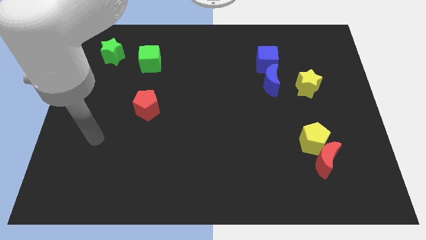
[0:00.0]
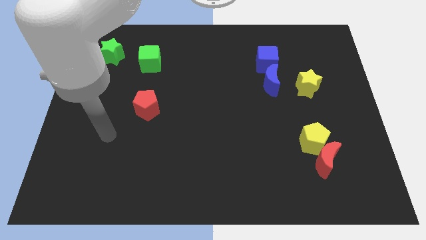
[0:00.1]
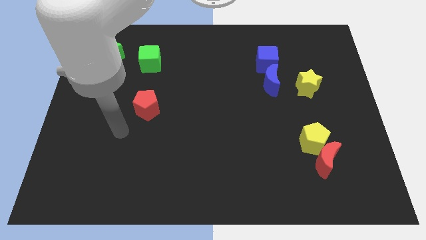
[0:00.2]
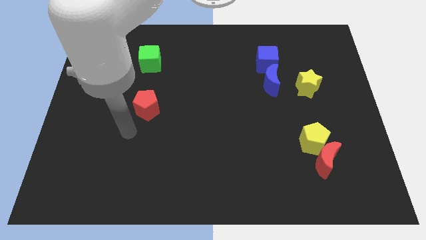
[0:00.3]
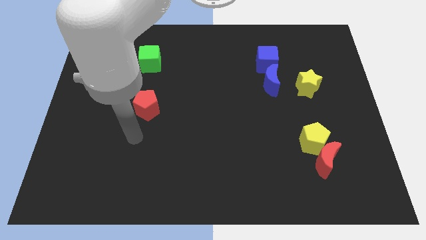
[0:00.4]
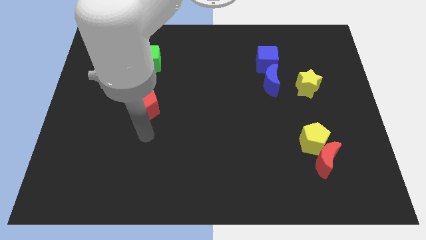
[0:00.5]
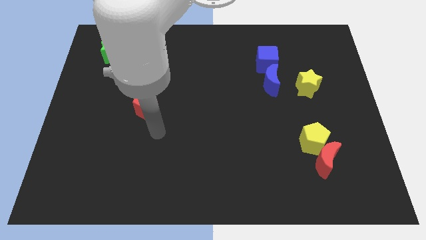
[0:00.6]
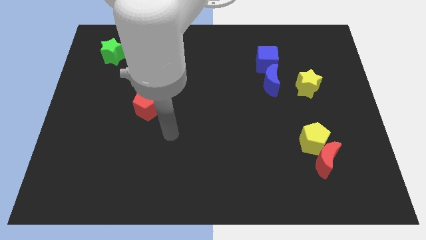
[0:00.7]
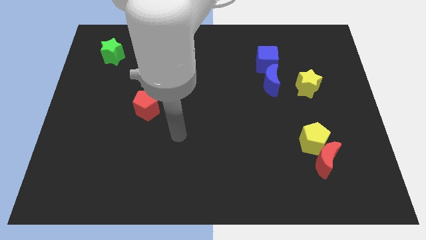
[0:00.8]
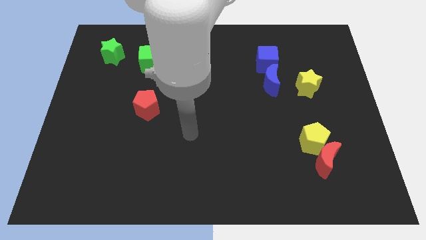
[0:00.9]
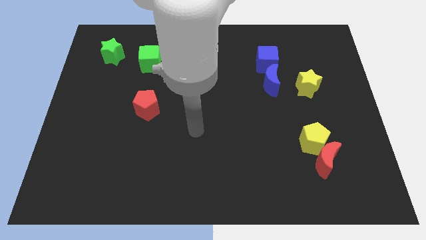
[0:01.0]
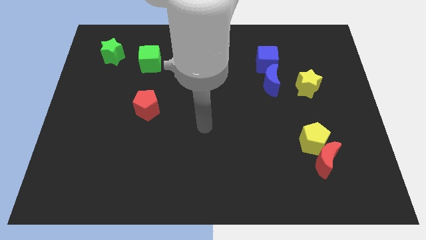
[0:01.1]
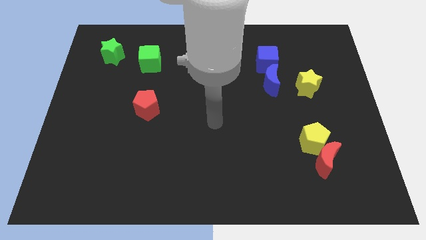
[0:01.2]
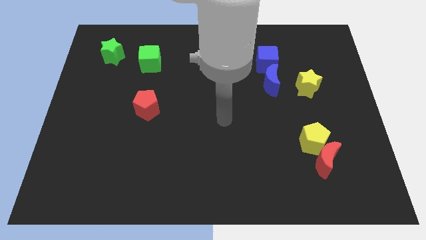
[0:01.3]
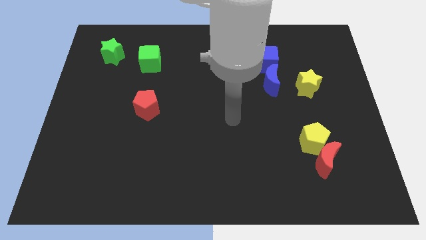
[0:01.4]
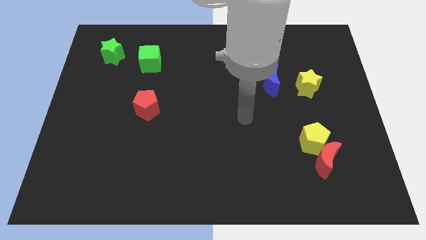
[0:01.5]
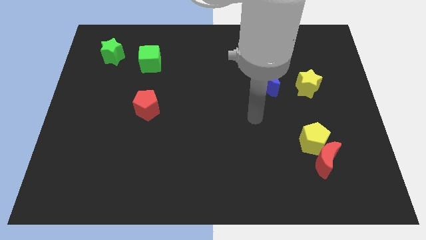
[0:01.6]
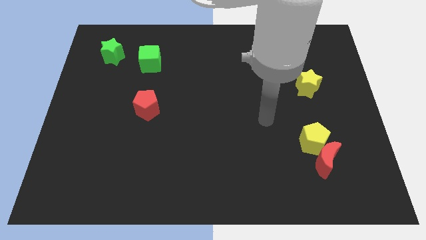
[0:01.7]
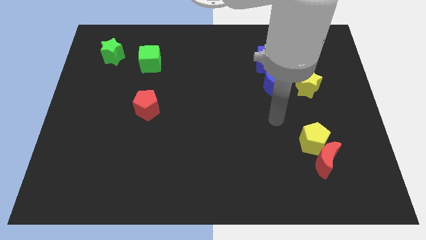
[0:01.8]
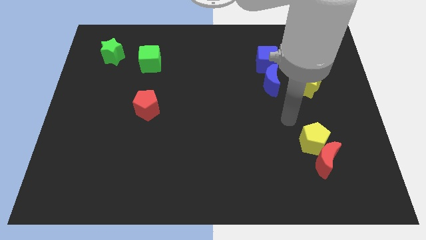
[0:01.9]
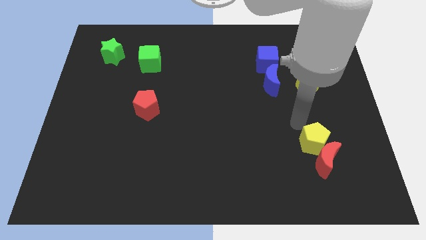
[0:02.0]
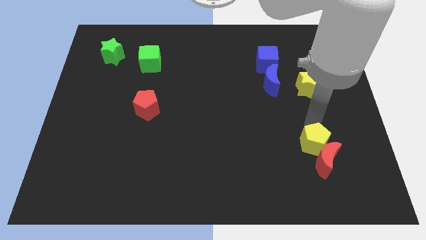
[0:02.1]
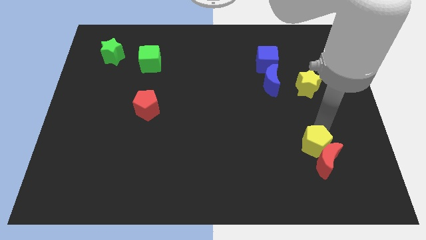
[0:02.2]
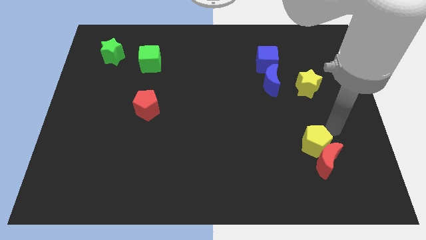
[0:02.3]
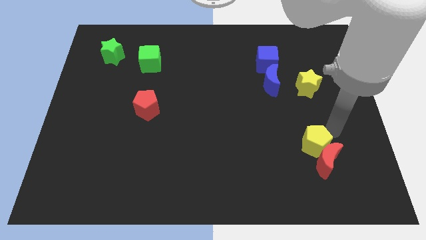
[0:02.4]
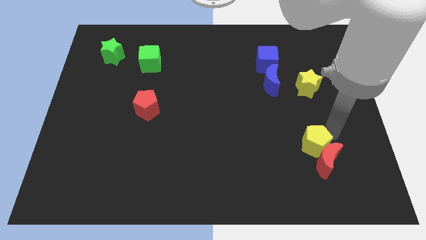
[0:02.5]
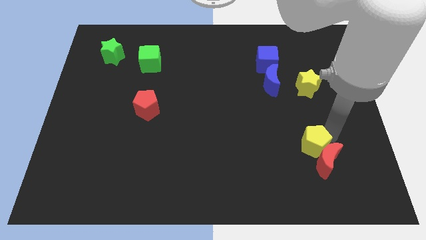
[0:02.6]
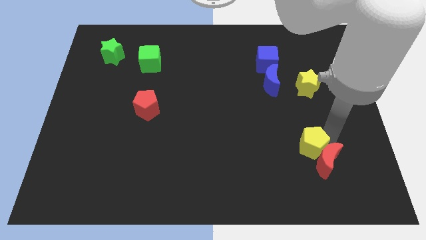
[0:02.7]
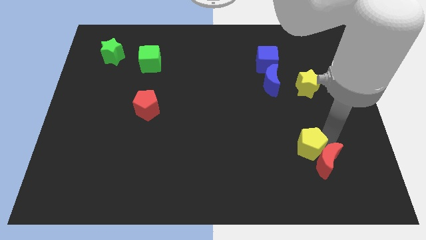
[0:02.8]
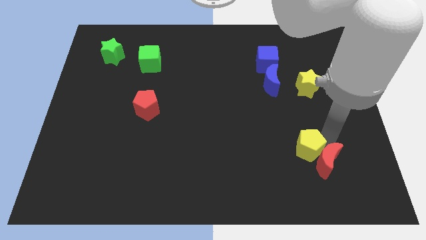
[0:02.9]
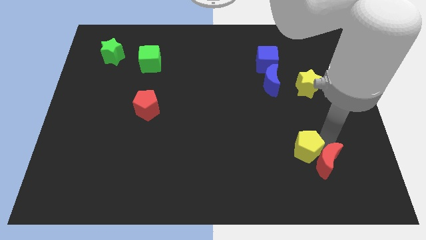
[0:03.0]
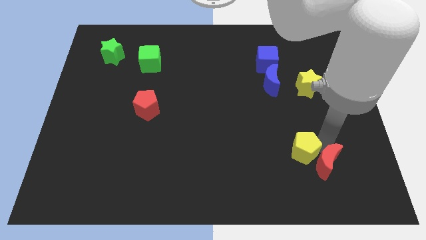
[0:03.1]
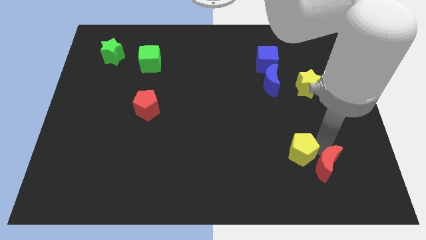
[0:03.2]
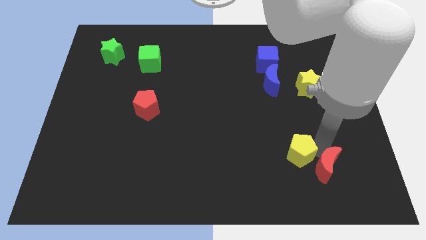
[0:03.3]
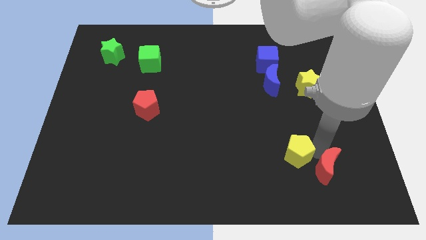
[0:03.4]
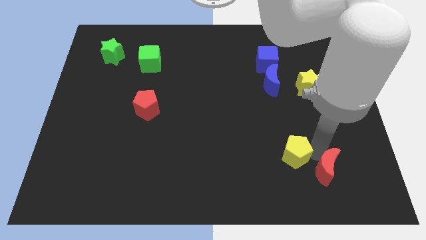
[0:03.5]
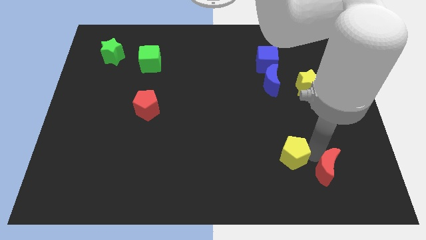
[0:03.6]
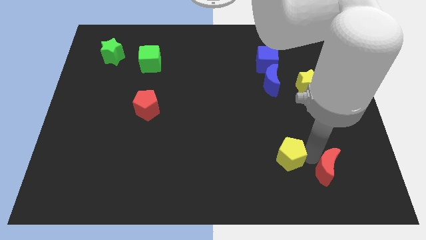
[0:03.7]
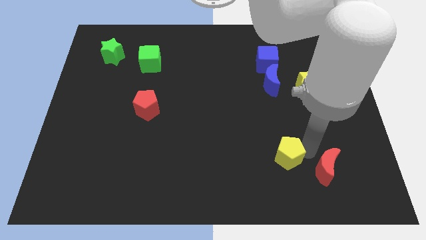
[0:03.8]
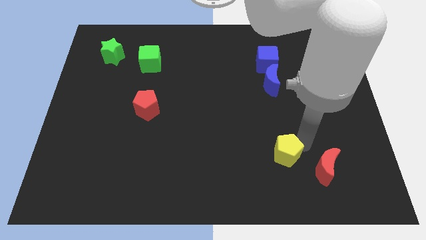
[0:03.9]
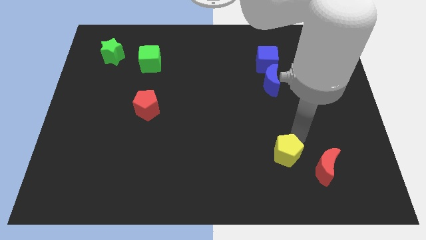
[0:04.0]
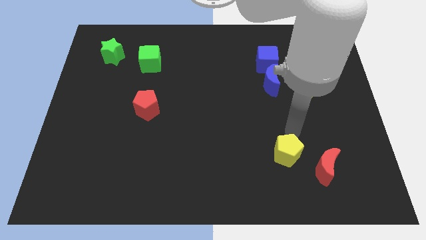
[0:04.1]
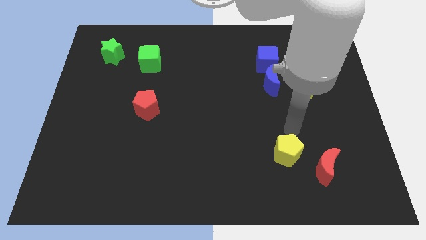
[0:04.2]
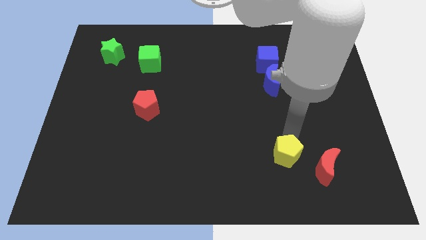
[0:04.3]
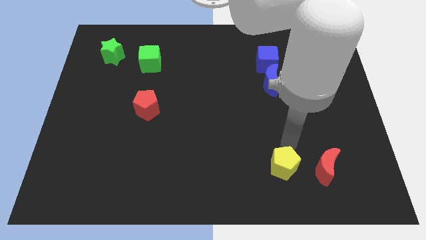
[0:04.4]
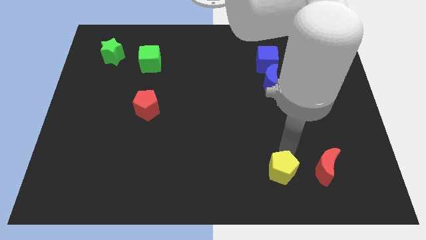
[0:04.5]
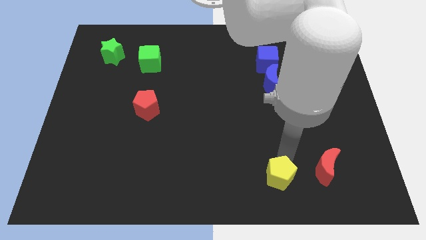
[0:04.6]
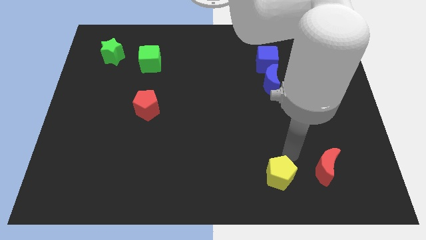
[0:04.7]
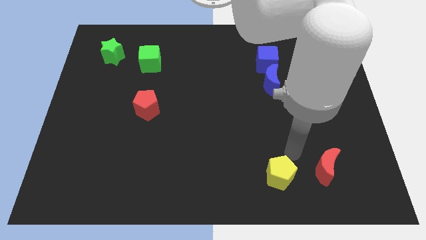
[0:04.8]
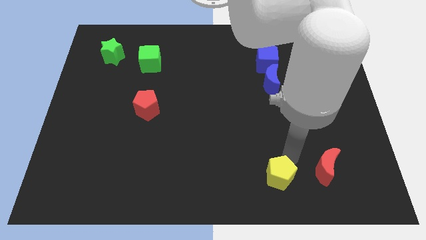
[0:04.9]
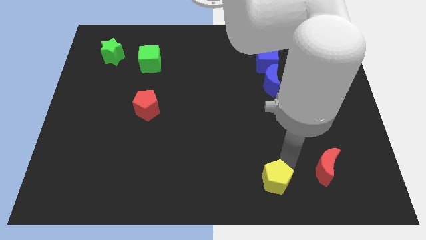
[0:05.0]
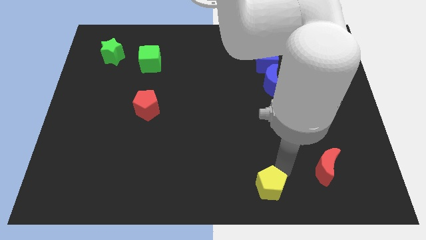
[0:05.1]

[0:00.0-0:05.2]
put the yellow pentagon to the bottom side

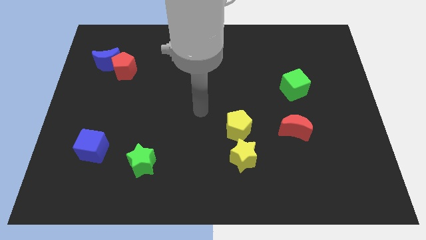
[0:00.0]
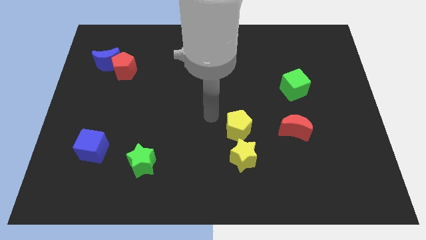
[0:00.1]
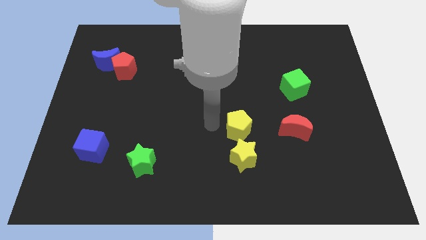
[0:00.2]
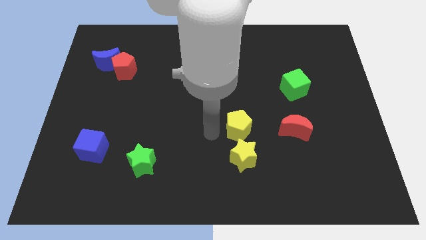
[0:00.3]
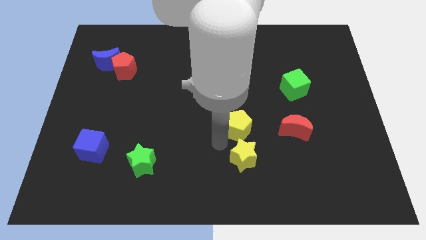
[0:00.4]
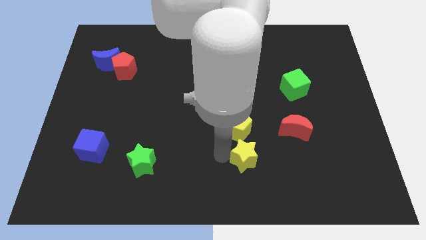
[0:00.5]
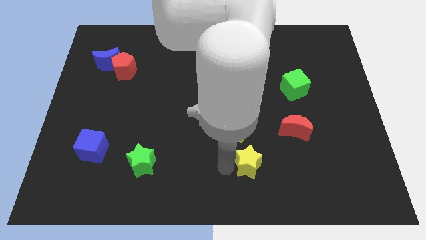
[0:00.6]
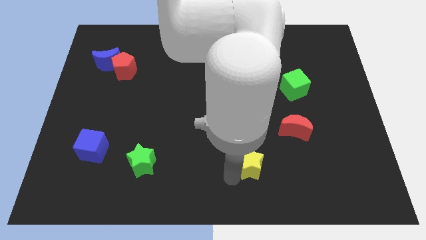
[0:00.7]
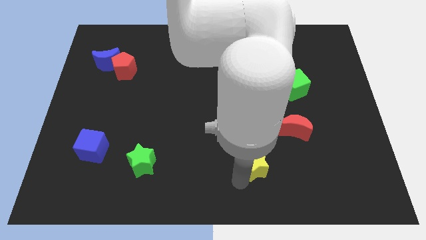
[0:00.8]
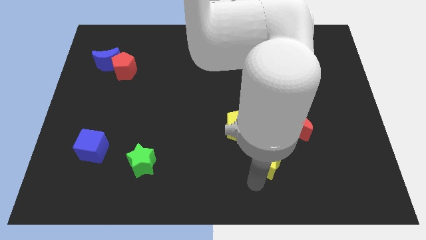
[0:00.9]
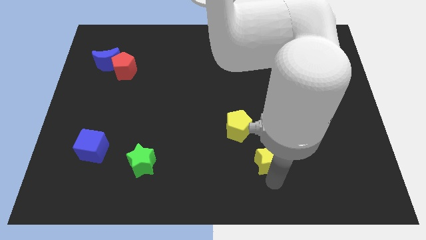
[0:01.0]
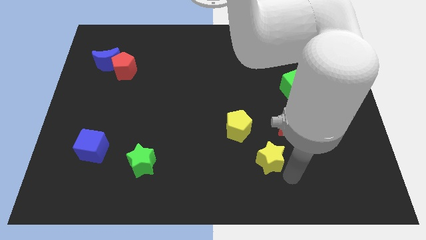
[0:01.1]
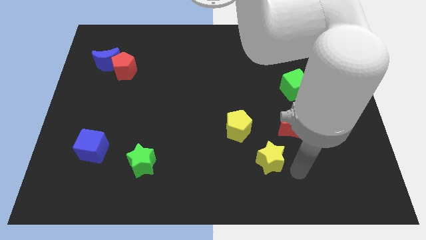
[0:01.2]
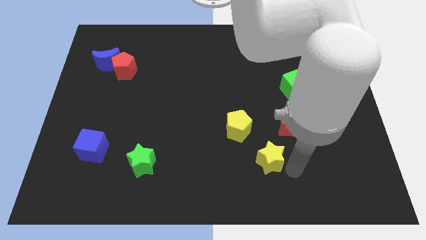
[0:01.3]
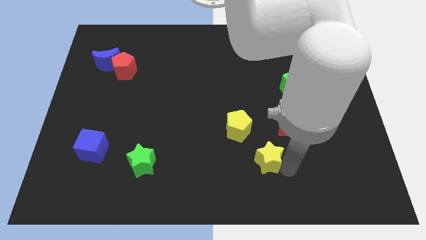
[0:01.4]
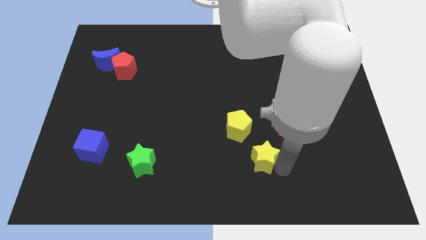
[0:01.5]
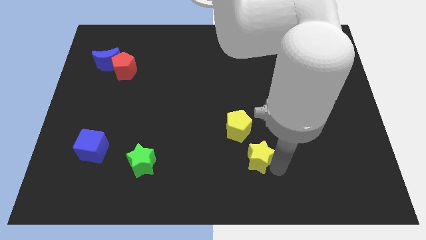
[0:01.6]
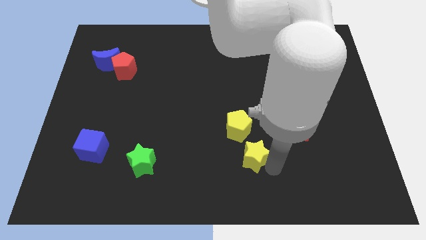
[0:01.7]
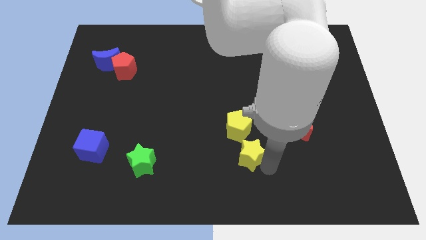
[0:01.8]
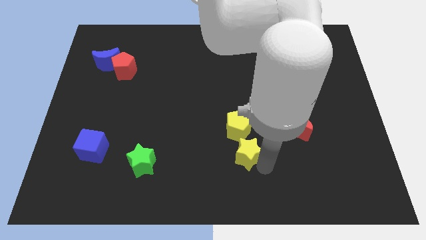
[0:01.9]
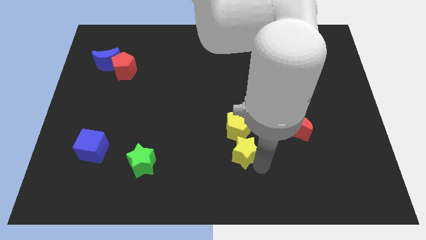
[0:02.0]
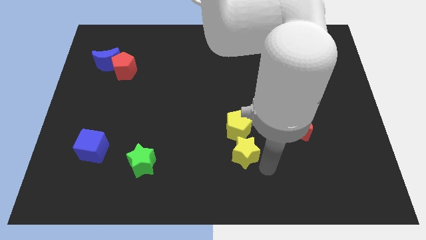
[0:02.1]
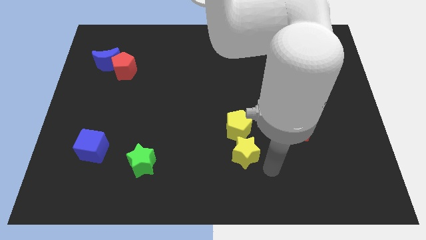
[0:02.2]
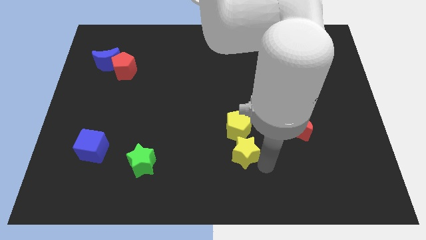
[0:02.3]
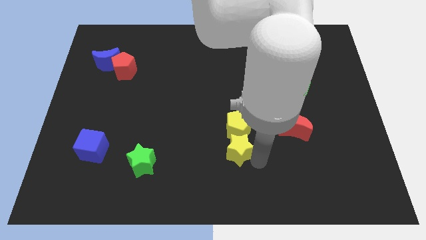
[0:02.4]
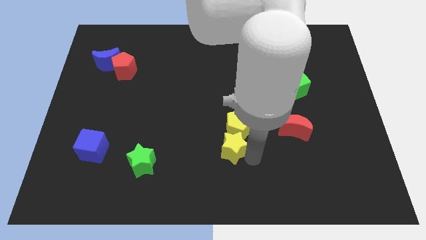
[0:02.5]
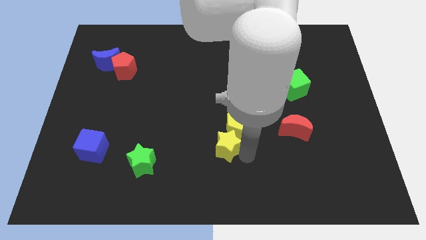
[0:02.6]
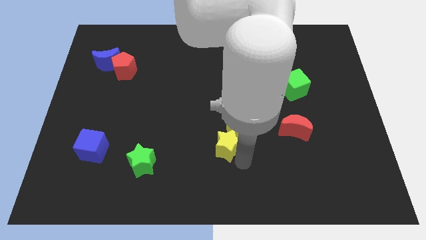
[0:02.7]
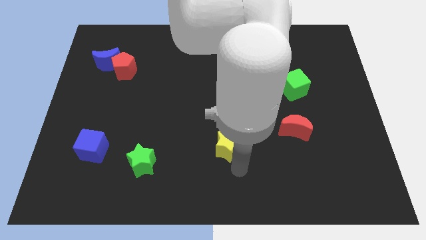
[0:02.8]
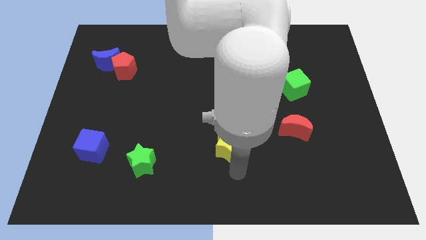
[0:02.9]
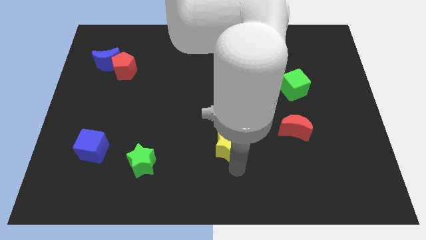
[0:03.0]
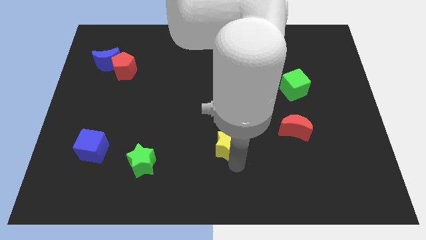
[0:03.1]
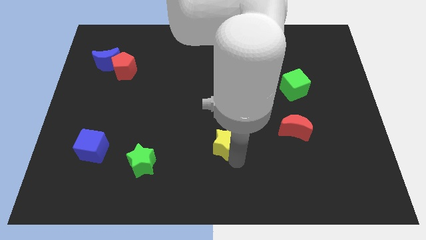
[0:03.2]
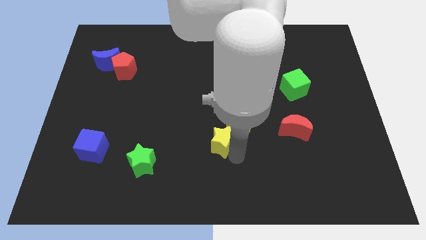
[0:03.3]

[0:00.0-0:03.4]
move the yellow star to the center of the board
